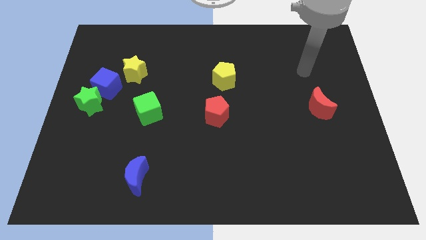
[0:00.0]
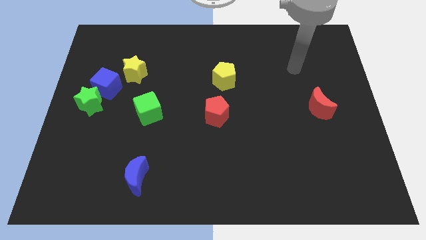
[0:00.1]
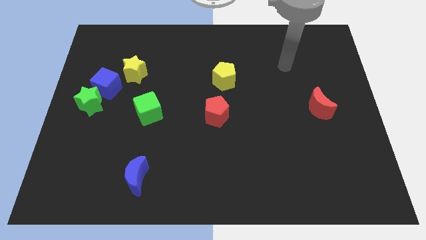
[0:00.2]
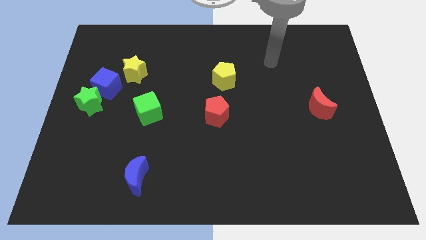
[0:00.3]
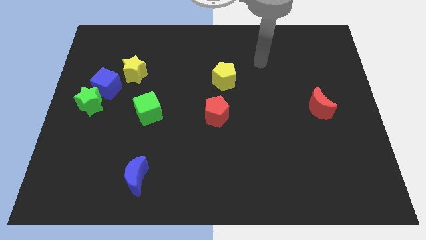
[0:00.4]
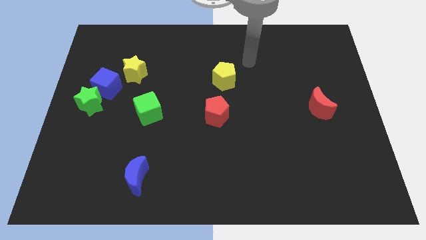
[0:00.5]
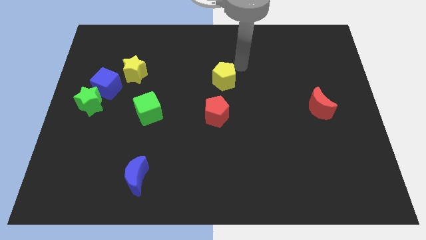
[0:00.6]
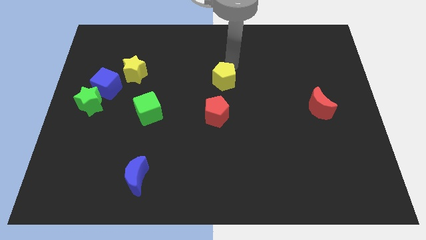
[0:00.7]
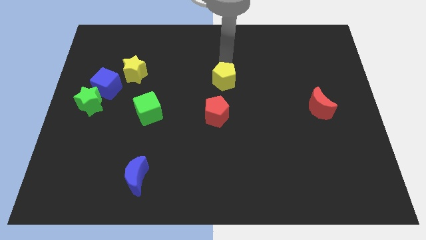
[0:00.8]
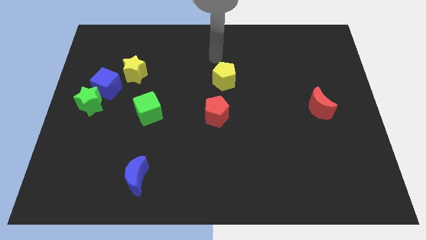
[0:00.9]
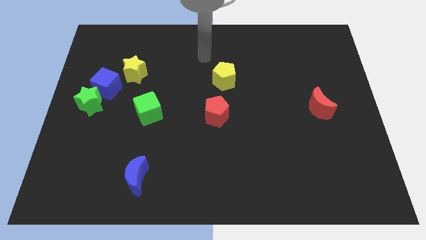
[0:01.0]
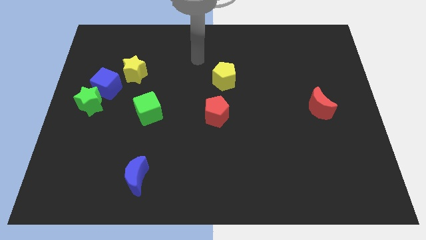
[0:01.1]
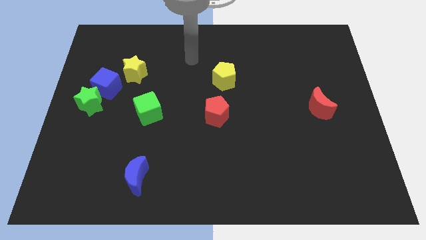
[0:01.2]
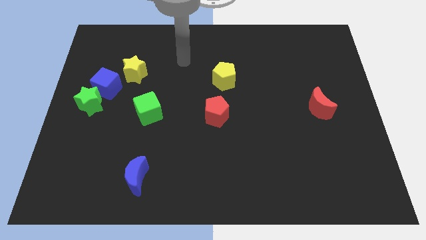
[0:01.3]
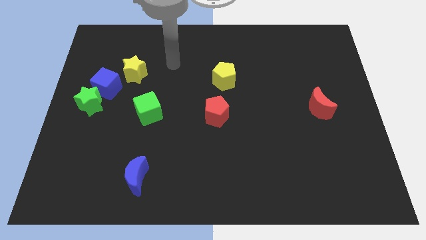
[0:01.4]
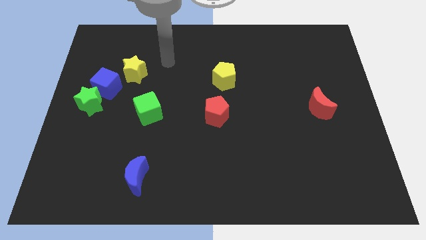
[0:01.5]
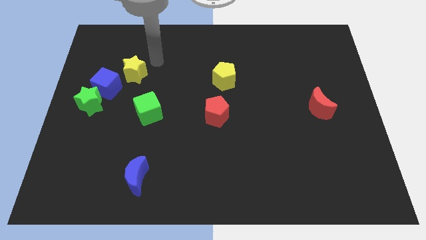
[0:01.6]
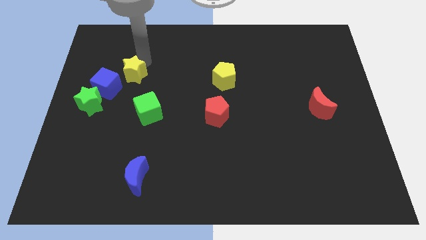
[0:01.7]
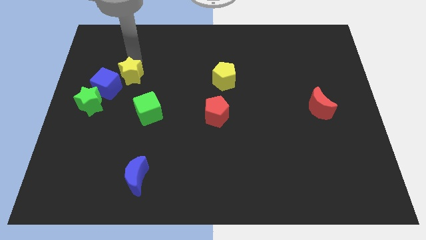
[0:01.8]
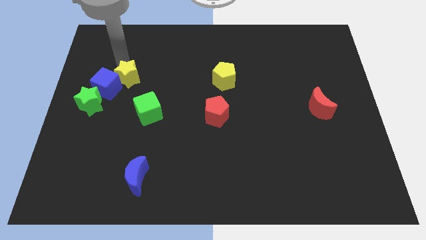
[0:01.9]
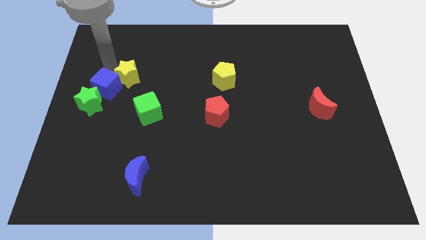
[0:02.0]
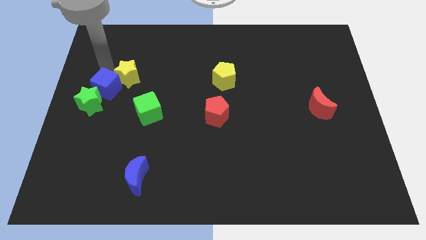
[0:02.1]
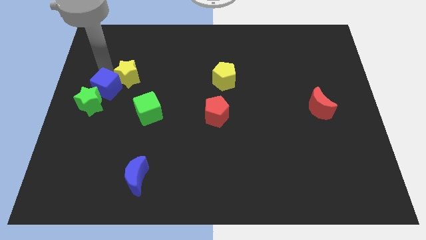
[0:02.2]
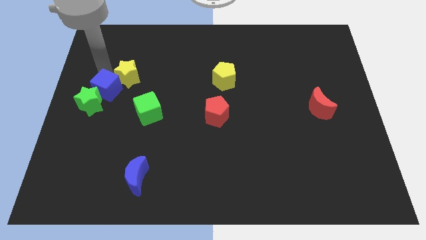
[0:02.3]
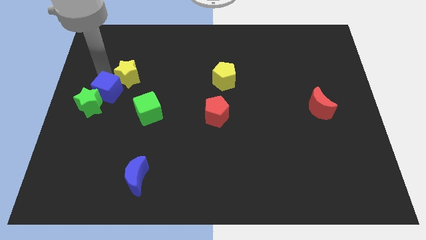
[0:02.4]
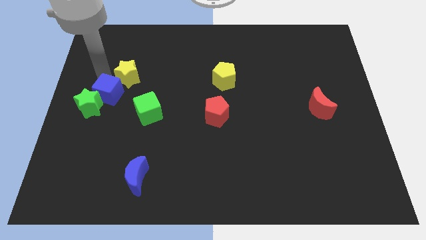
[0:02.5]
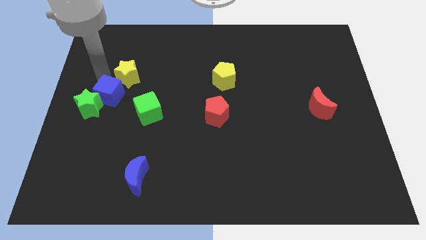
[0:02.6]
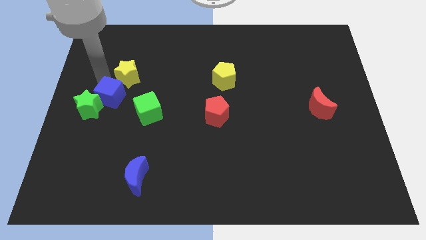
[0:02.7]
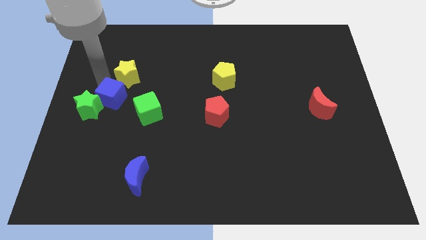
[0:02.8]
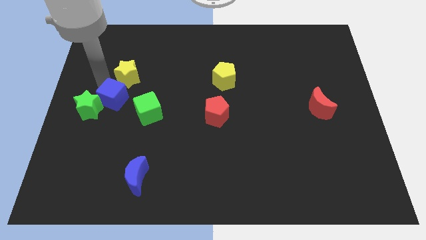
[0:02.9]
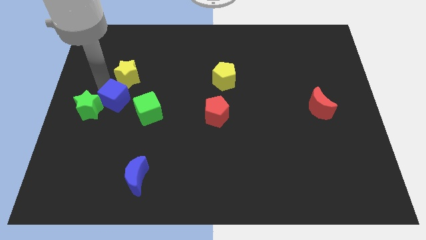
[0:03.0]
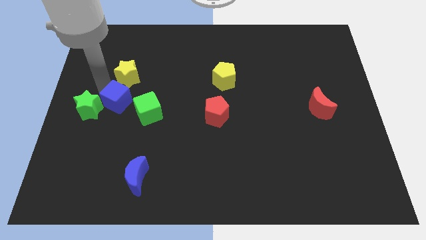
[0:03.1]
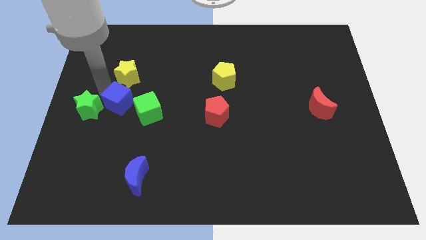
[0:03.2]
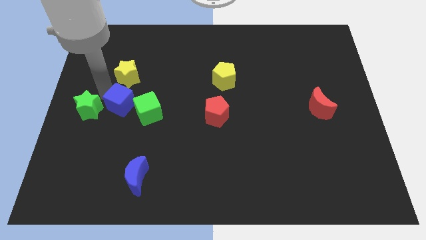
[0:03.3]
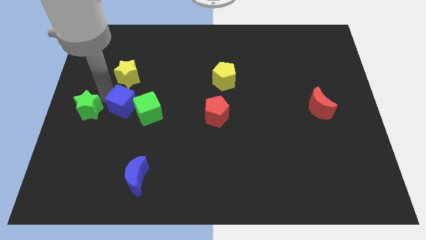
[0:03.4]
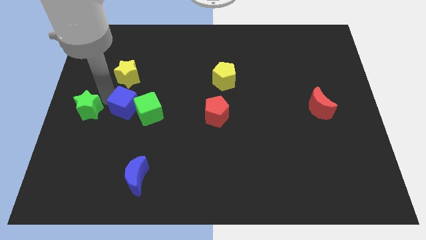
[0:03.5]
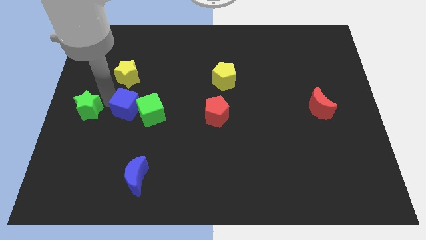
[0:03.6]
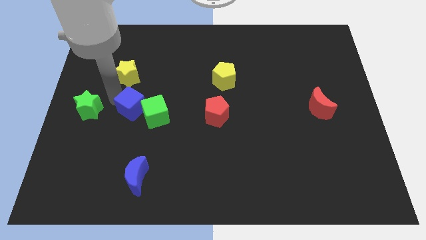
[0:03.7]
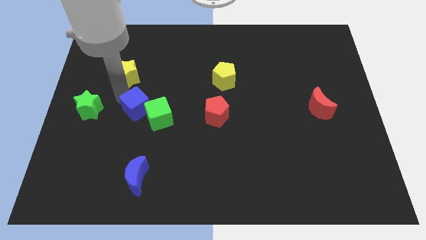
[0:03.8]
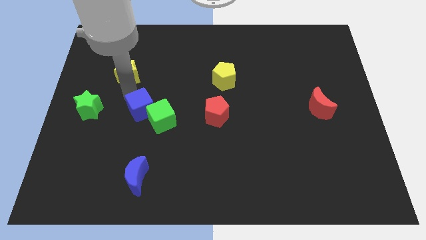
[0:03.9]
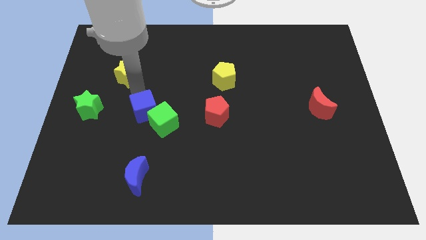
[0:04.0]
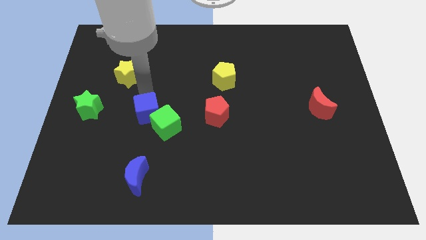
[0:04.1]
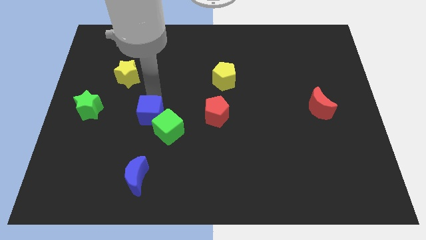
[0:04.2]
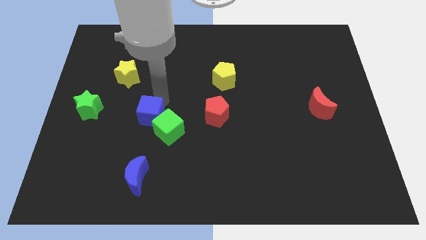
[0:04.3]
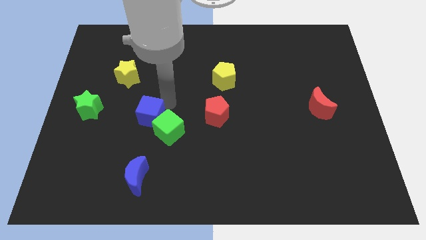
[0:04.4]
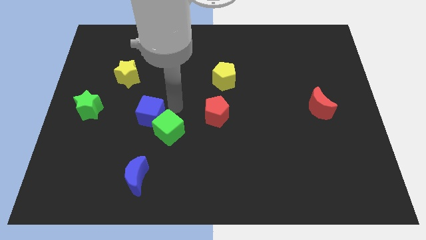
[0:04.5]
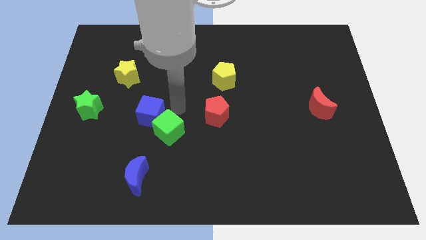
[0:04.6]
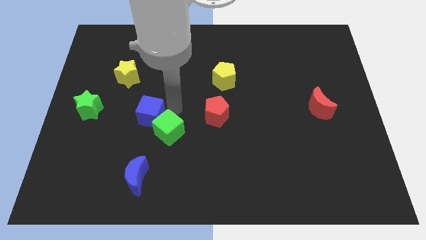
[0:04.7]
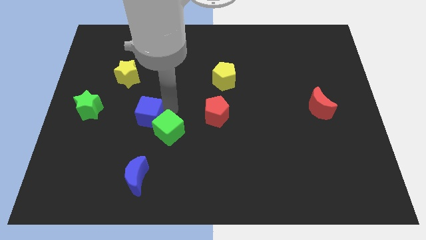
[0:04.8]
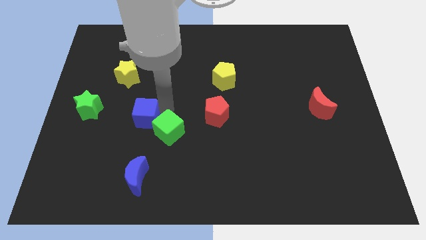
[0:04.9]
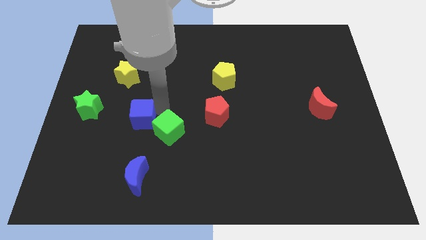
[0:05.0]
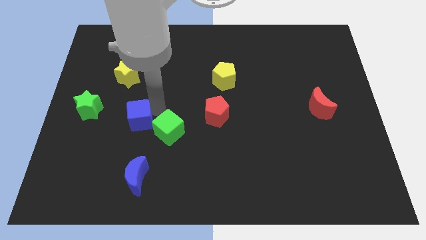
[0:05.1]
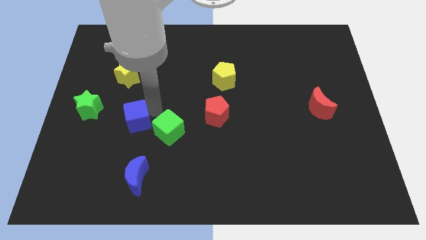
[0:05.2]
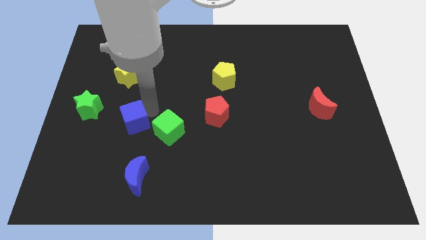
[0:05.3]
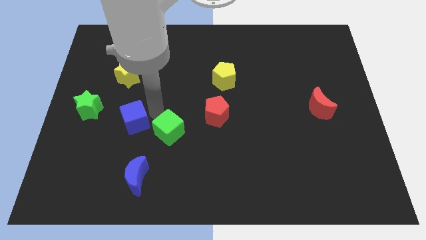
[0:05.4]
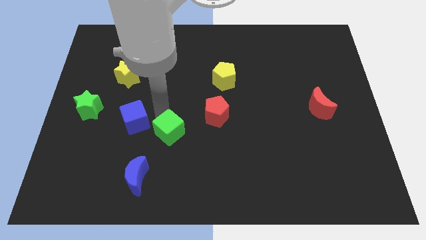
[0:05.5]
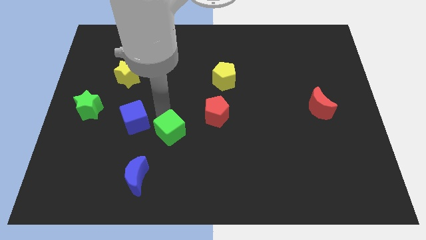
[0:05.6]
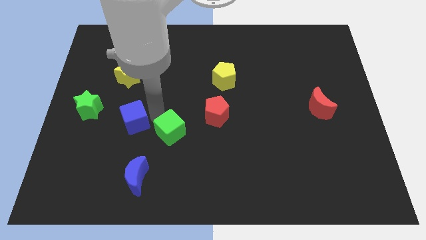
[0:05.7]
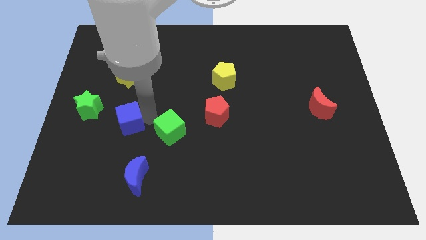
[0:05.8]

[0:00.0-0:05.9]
push the blue cube to the bottom right of the green star
